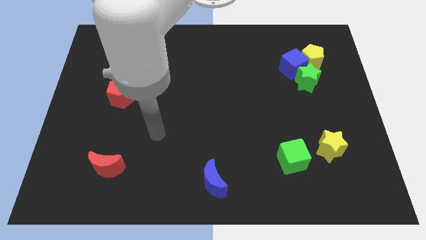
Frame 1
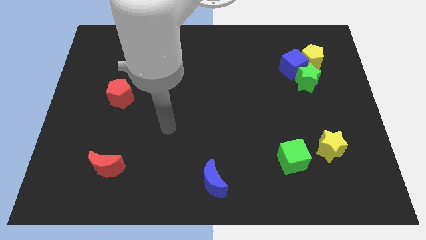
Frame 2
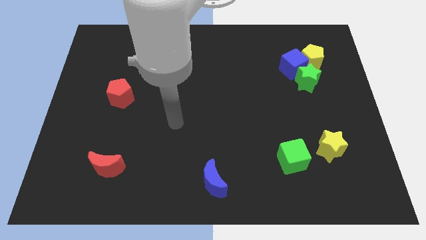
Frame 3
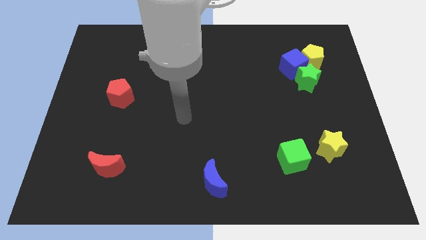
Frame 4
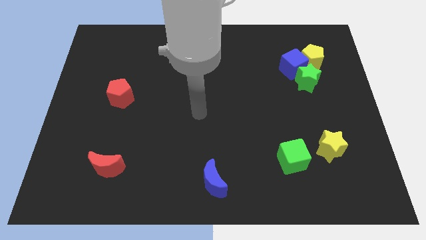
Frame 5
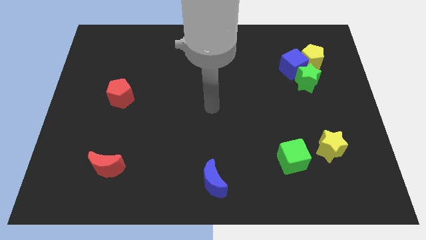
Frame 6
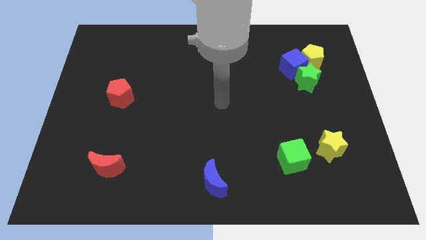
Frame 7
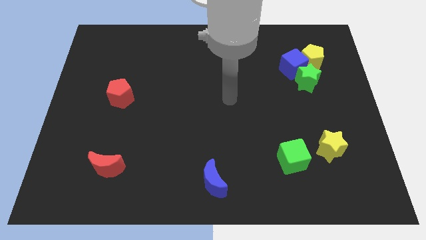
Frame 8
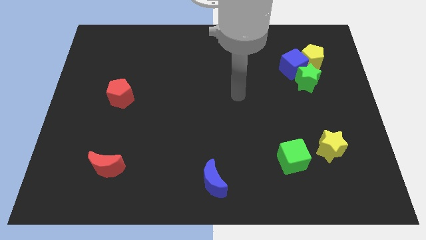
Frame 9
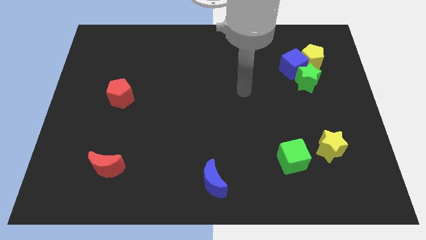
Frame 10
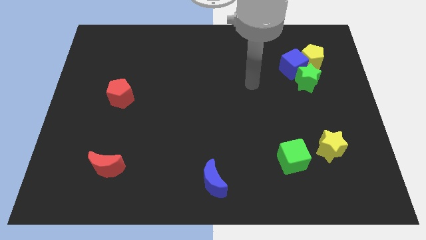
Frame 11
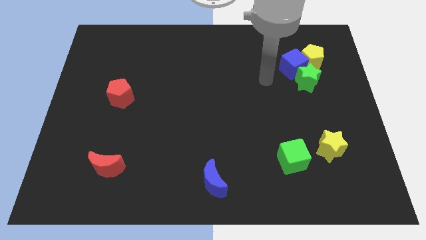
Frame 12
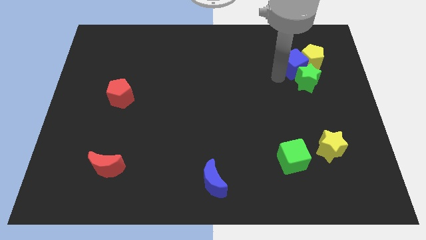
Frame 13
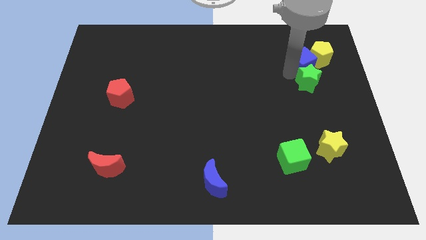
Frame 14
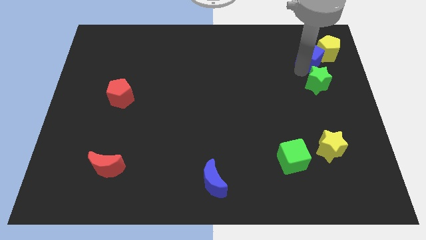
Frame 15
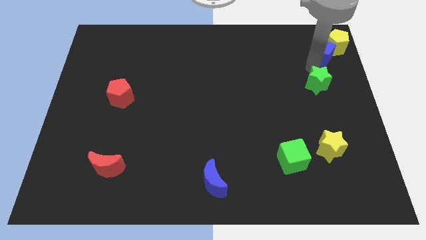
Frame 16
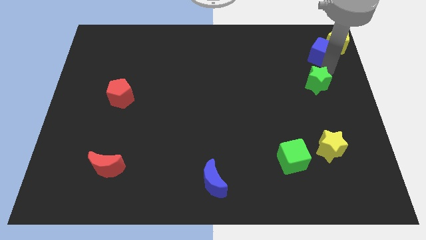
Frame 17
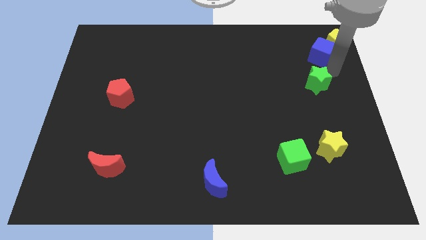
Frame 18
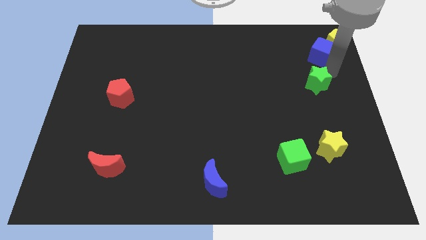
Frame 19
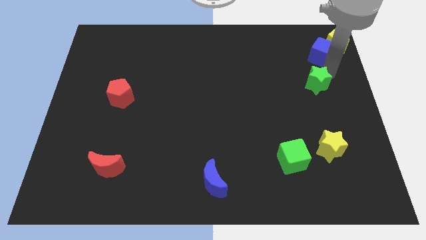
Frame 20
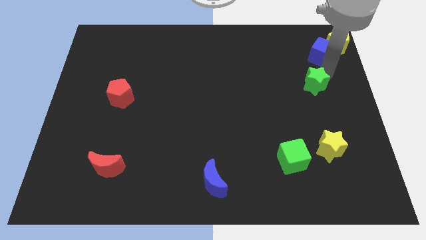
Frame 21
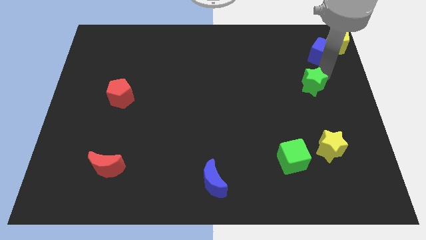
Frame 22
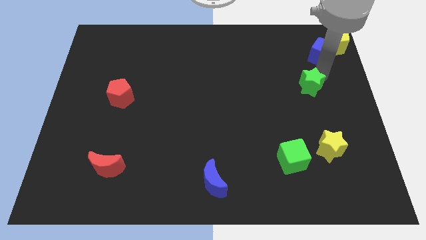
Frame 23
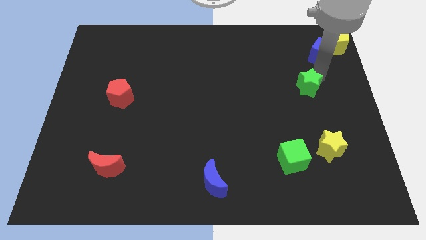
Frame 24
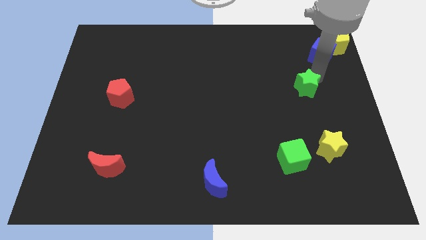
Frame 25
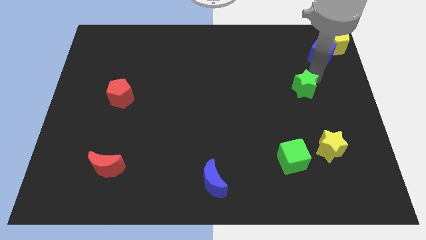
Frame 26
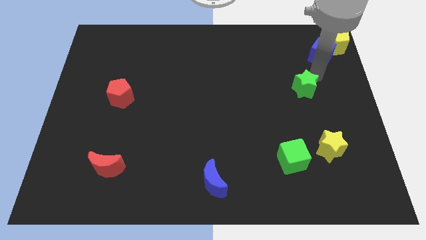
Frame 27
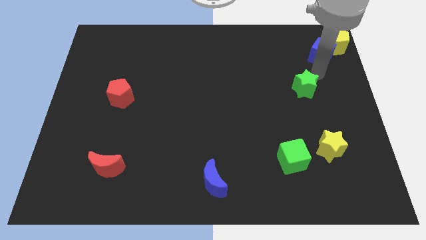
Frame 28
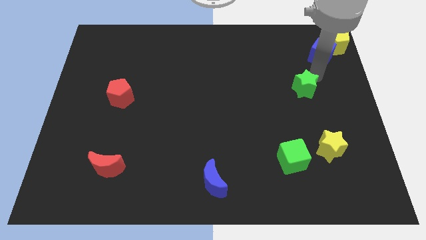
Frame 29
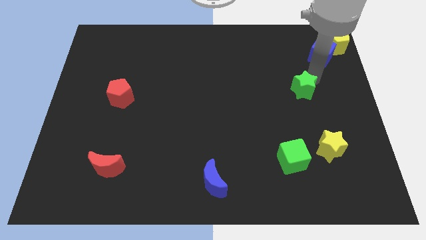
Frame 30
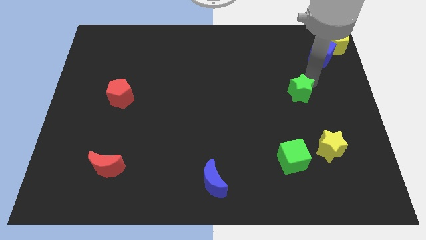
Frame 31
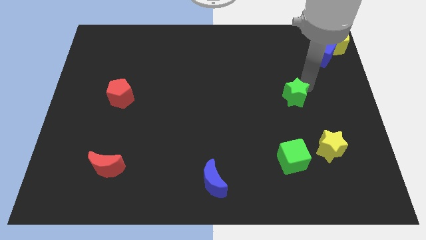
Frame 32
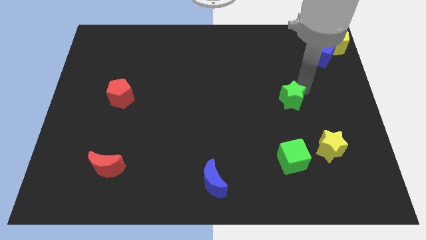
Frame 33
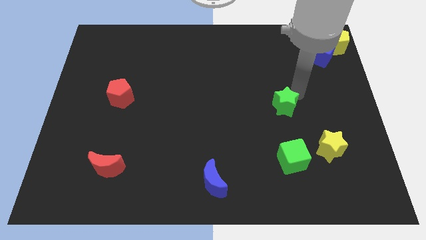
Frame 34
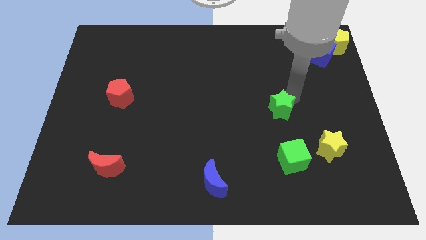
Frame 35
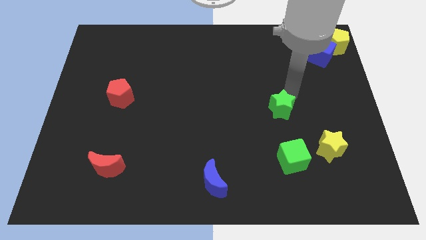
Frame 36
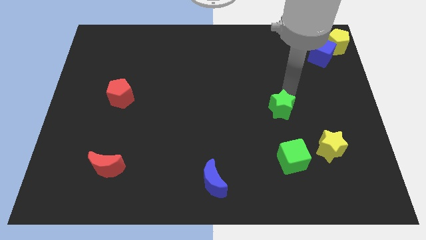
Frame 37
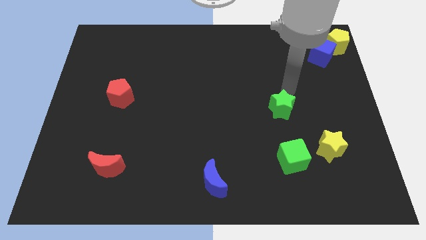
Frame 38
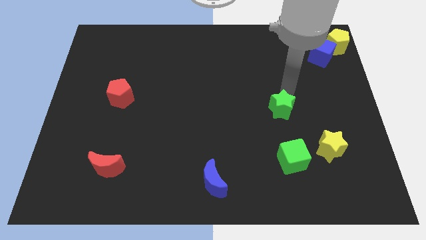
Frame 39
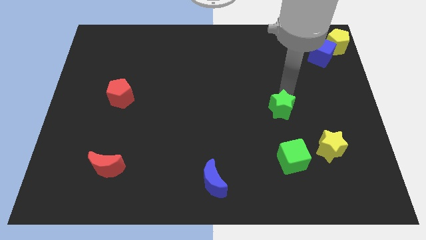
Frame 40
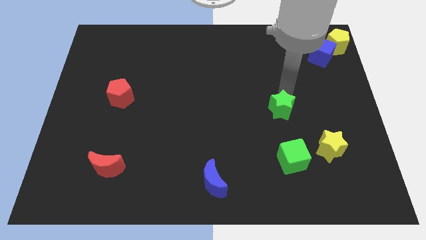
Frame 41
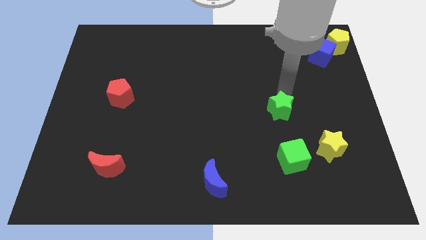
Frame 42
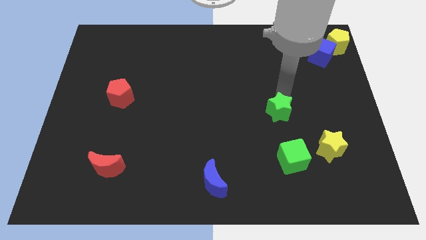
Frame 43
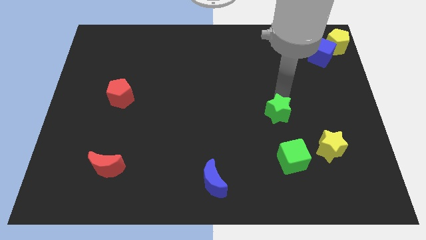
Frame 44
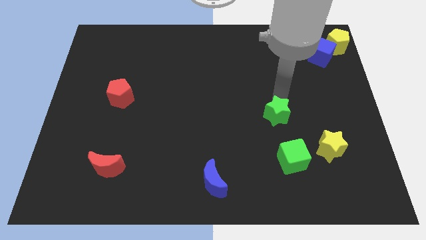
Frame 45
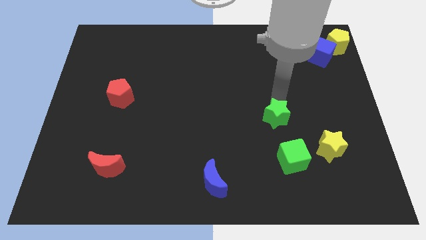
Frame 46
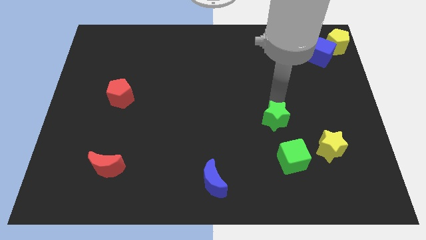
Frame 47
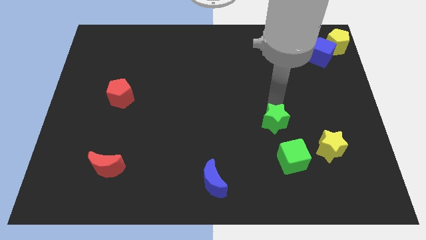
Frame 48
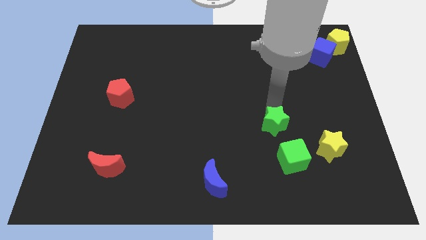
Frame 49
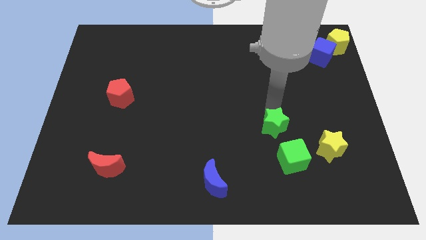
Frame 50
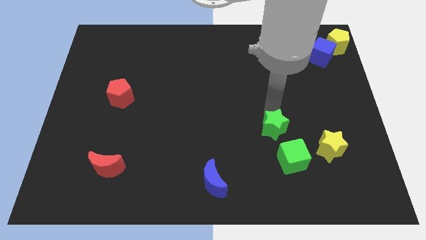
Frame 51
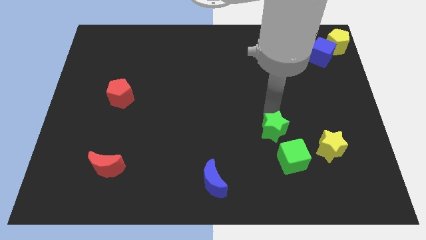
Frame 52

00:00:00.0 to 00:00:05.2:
slide the green star to the left side of the yellow star

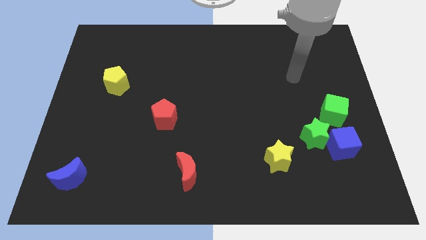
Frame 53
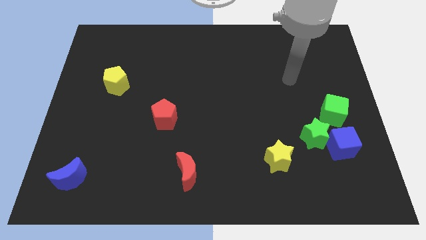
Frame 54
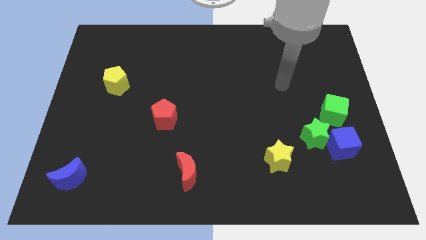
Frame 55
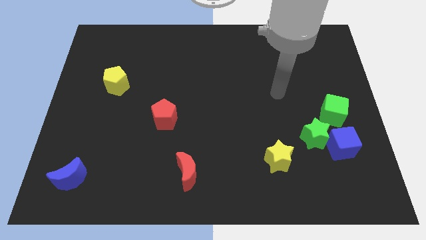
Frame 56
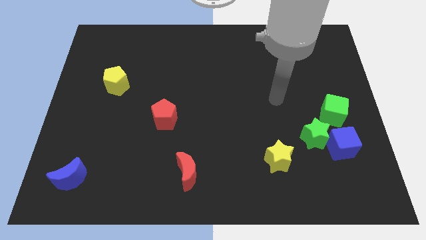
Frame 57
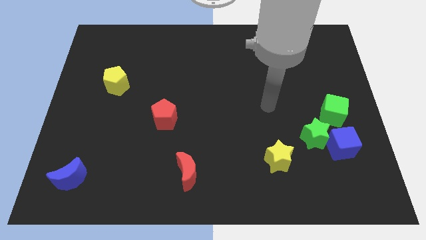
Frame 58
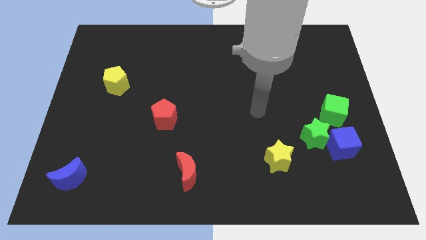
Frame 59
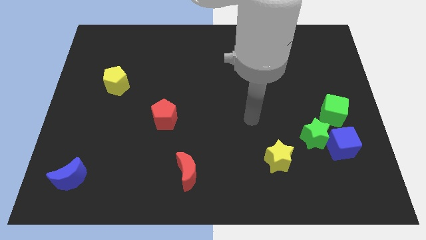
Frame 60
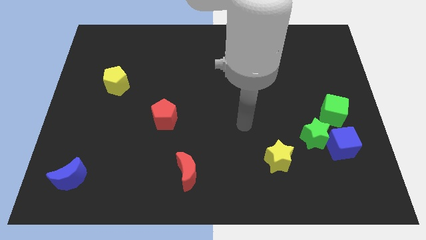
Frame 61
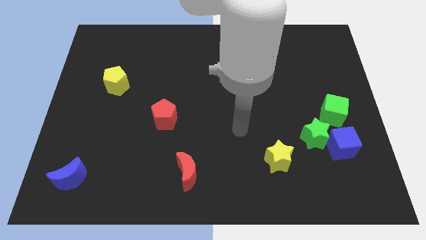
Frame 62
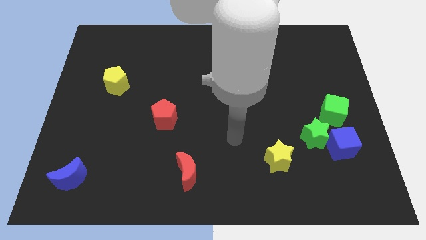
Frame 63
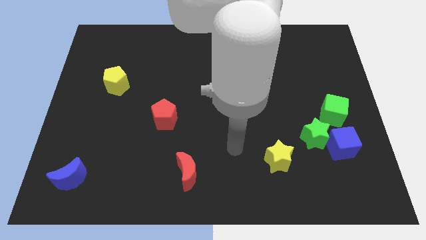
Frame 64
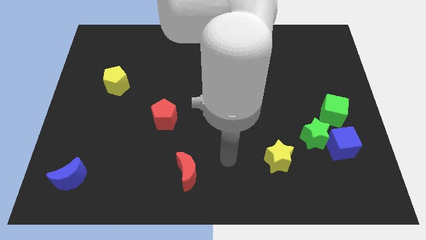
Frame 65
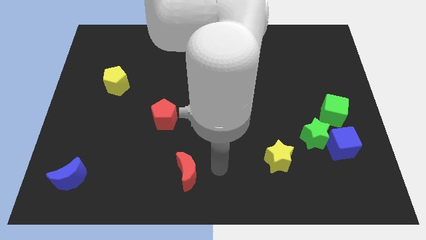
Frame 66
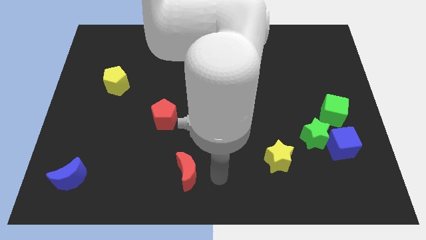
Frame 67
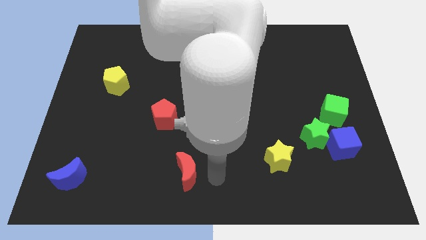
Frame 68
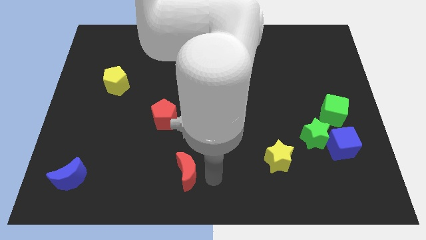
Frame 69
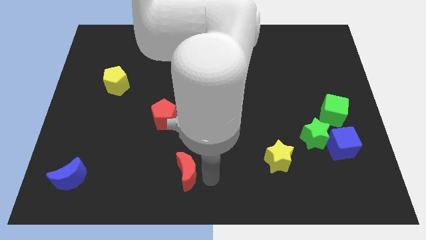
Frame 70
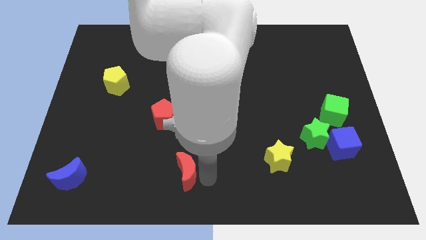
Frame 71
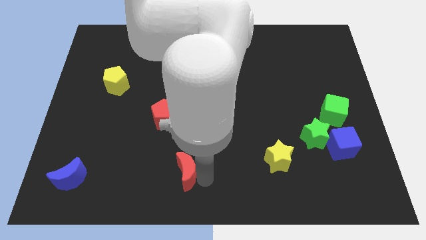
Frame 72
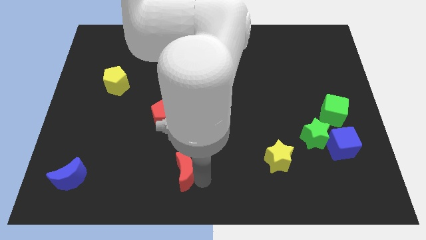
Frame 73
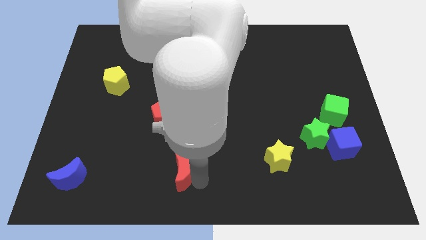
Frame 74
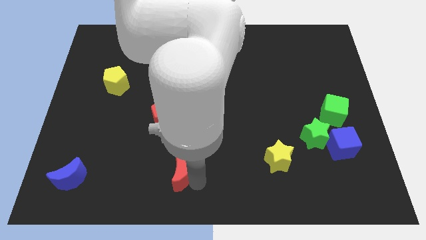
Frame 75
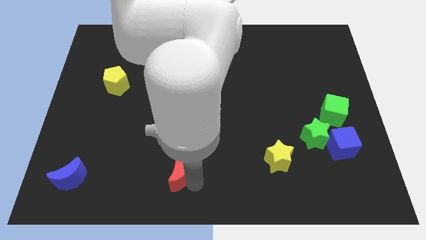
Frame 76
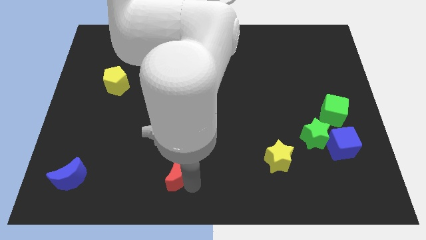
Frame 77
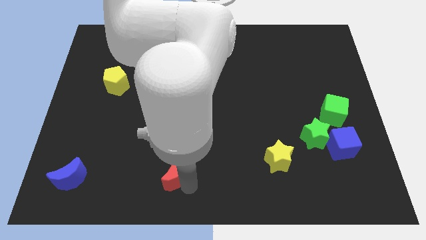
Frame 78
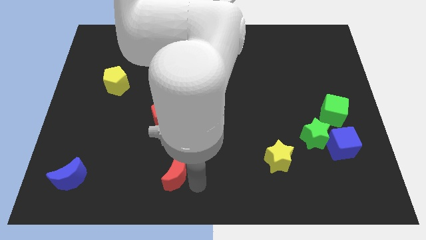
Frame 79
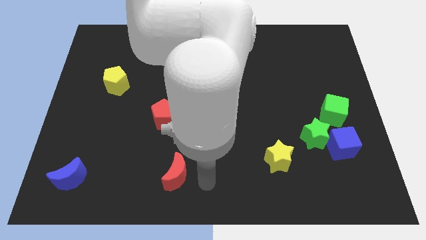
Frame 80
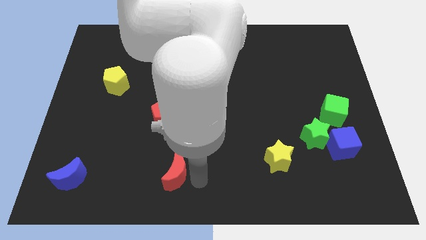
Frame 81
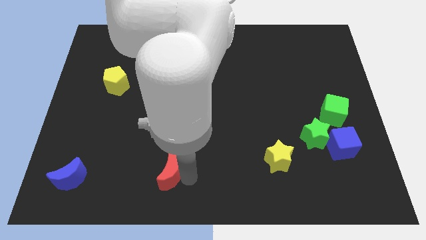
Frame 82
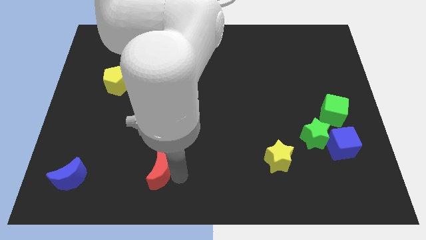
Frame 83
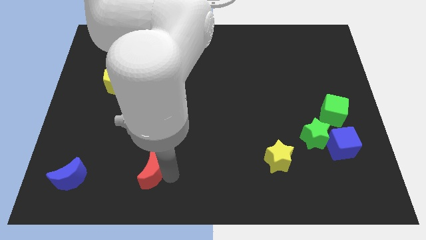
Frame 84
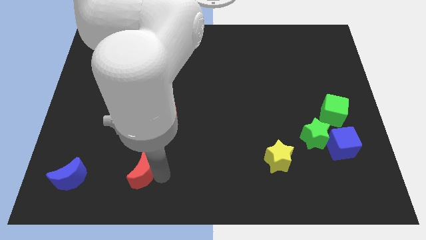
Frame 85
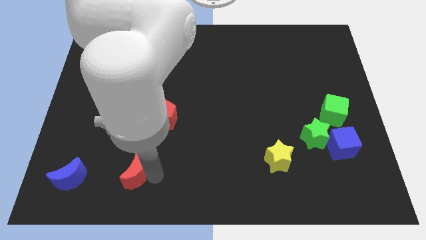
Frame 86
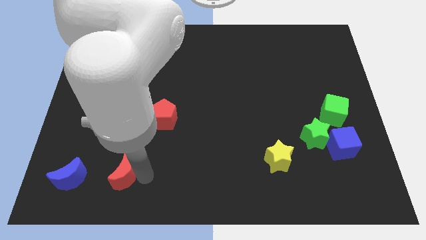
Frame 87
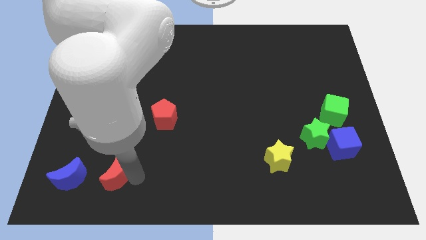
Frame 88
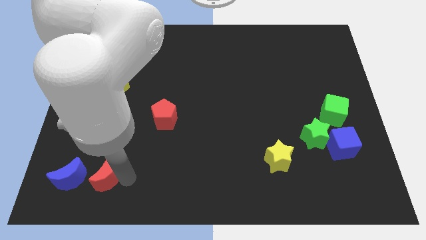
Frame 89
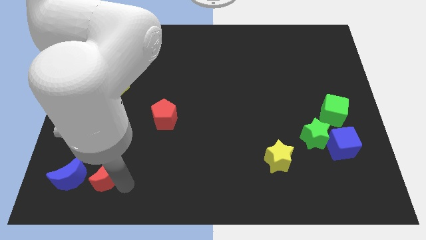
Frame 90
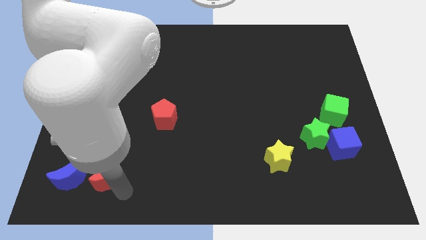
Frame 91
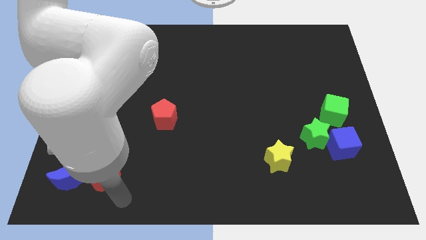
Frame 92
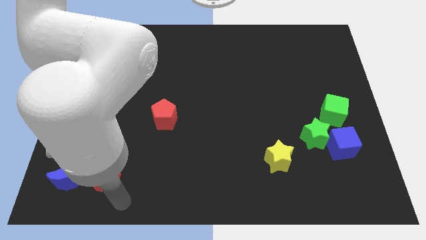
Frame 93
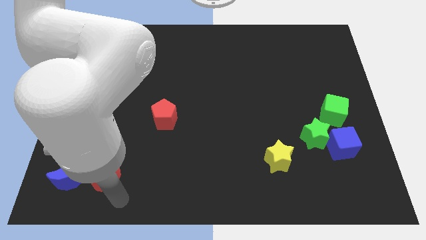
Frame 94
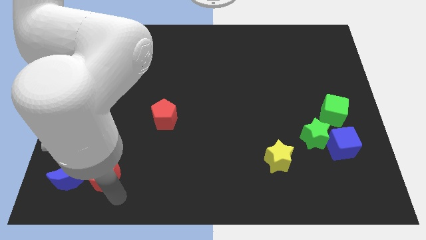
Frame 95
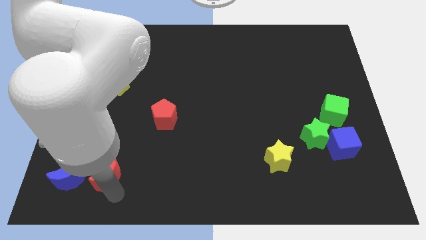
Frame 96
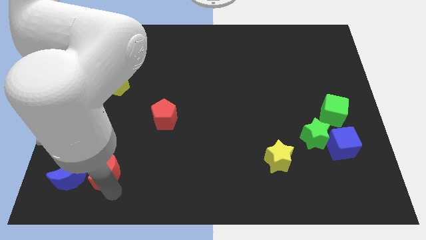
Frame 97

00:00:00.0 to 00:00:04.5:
push the red moon diagonally up and to the right of the blue moon
